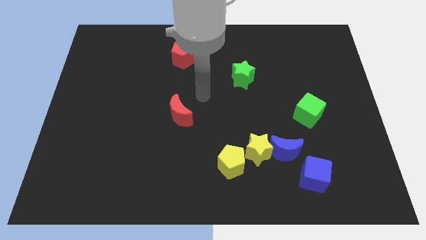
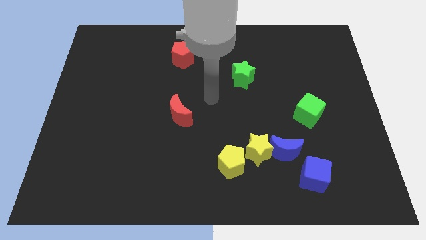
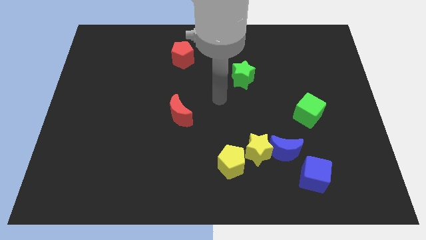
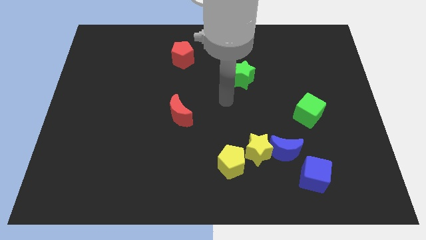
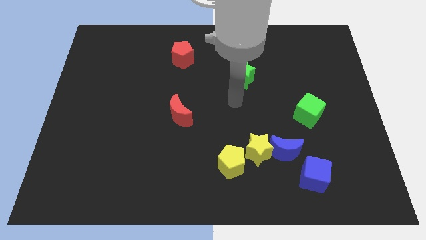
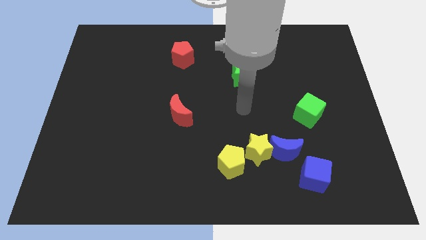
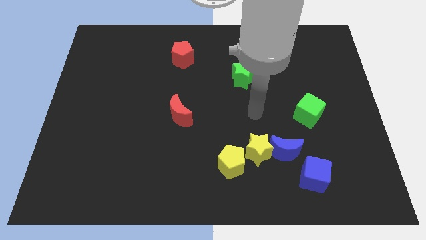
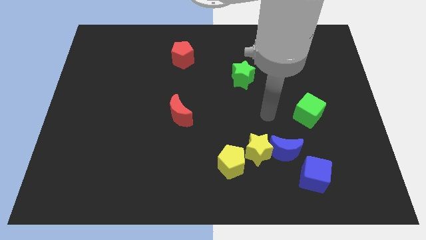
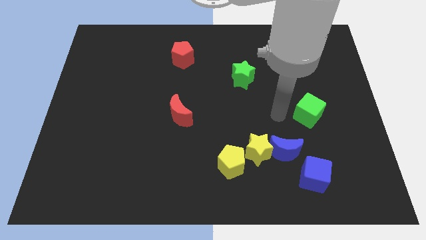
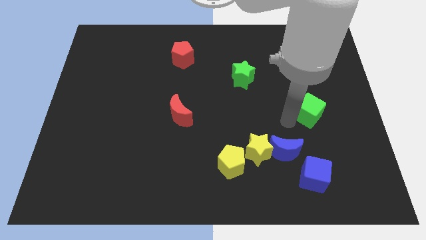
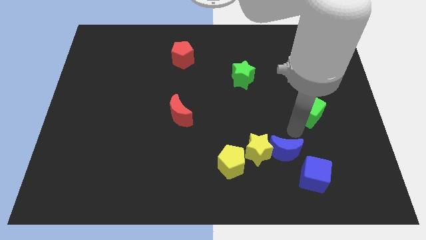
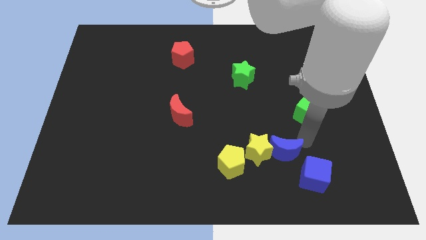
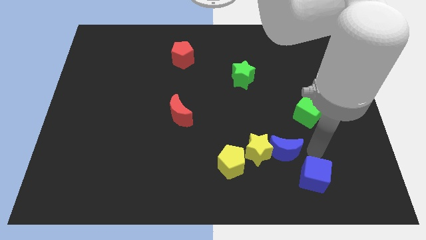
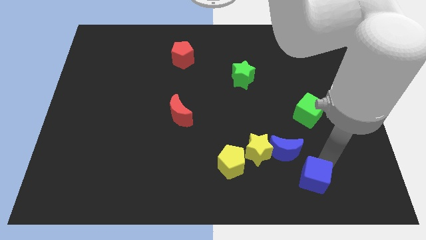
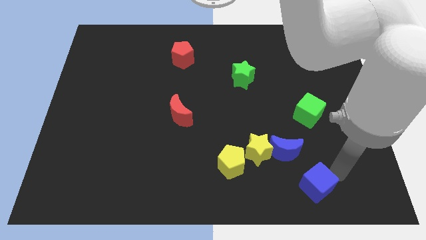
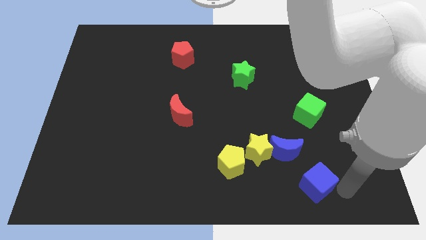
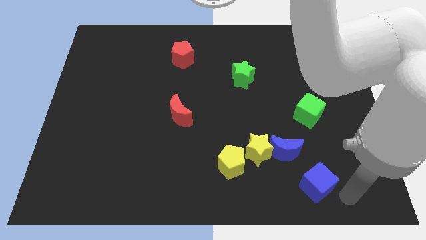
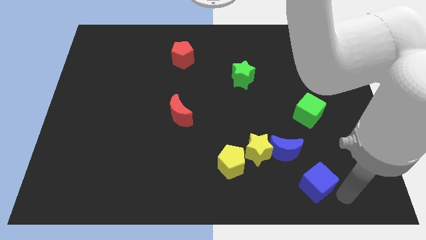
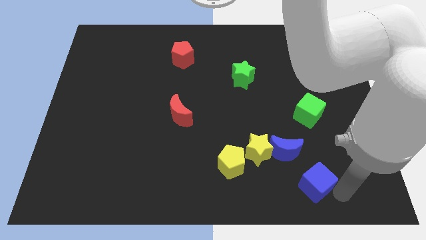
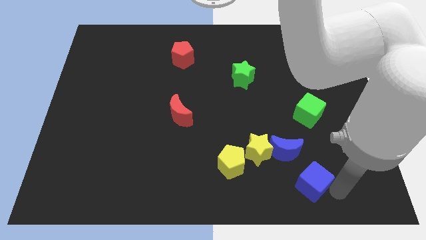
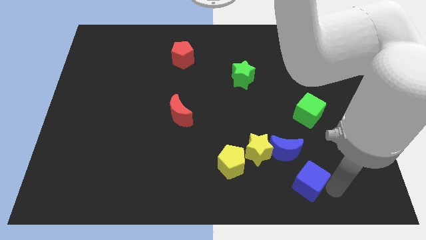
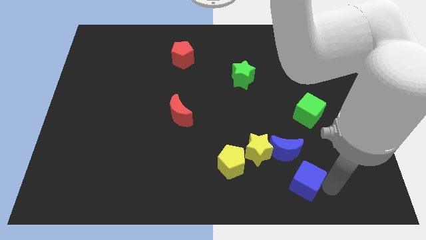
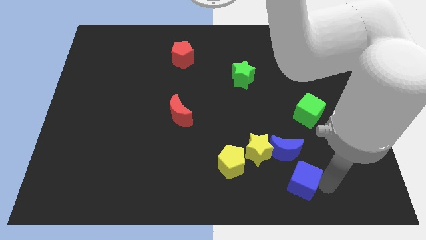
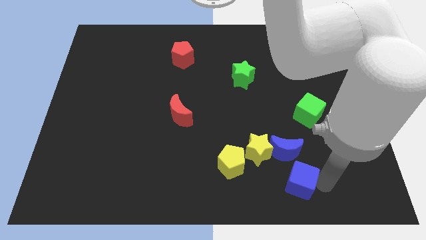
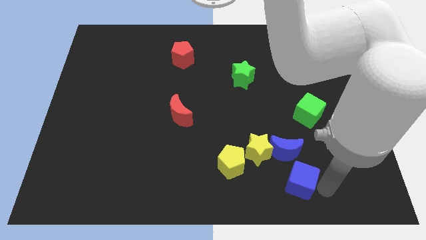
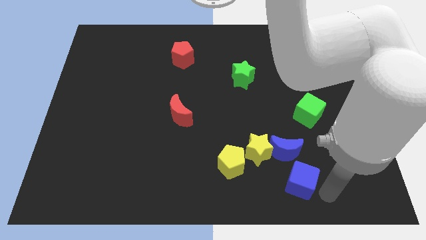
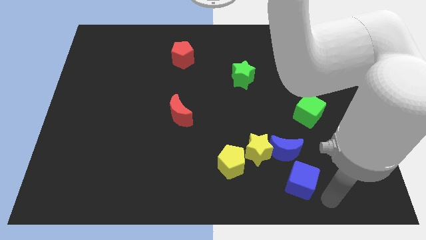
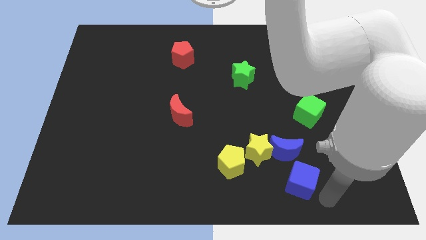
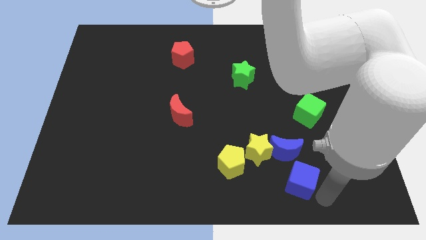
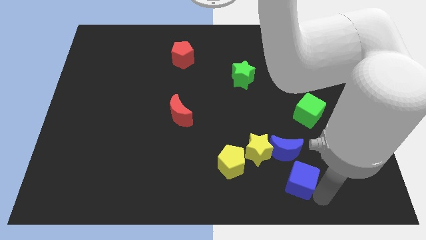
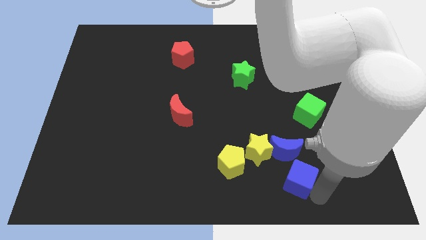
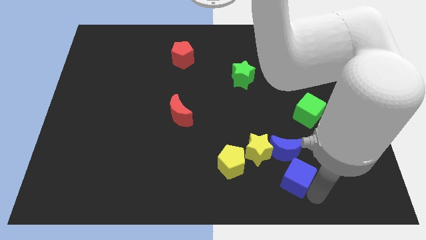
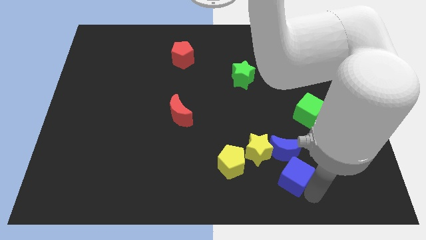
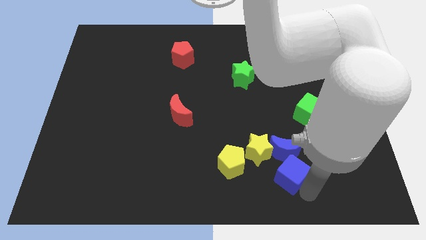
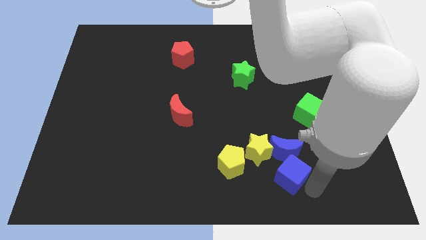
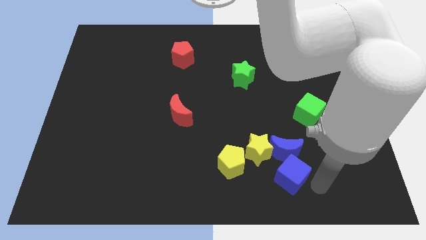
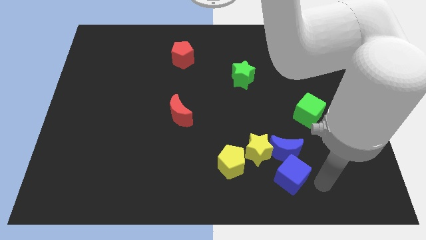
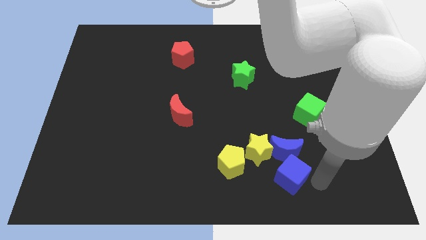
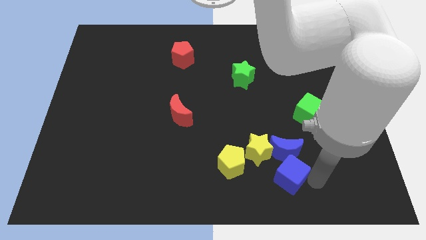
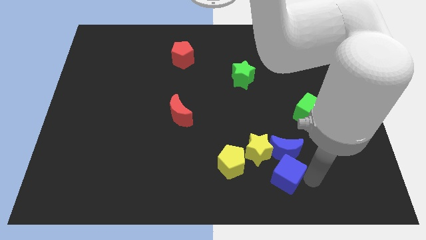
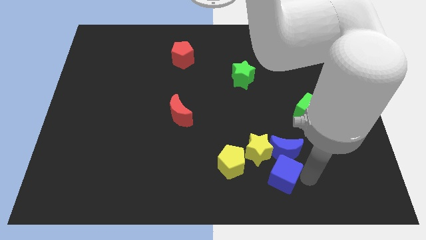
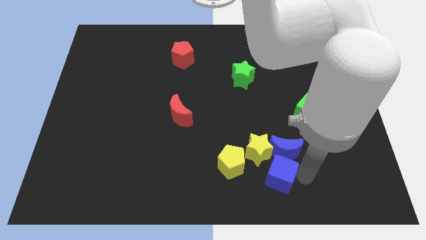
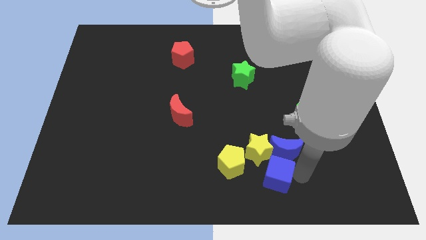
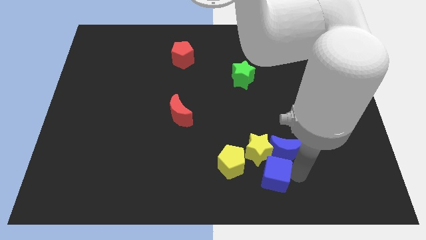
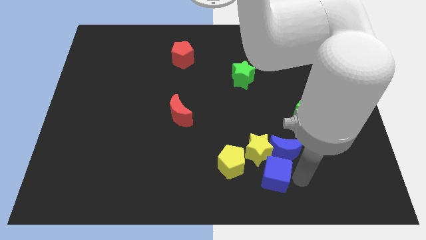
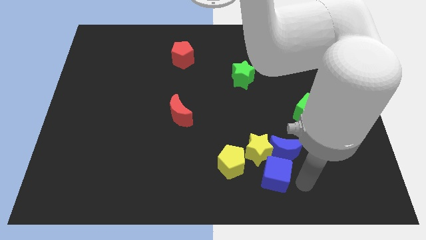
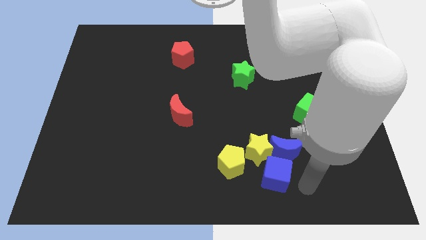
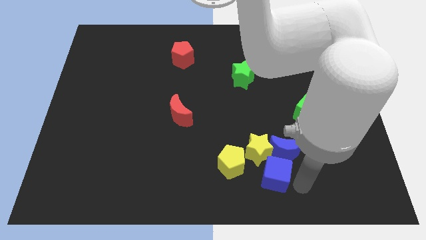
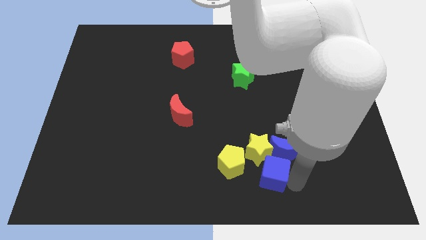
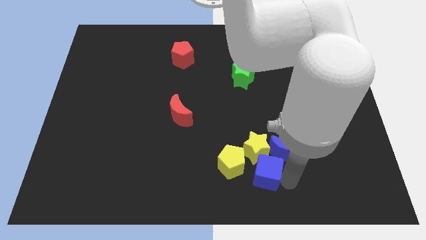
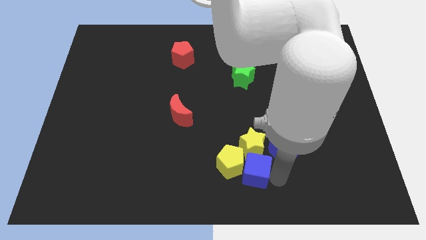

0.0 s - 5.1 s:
move the blue cube to the yellow pentagon

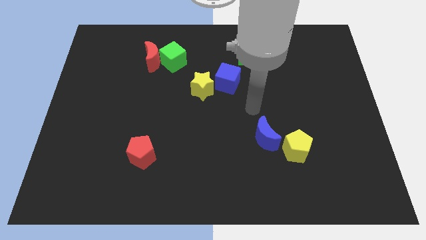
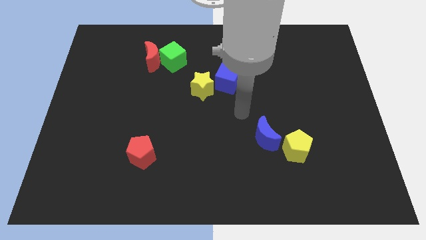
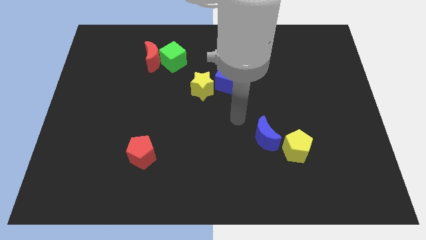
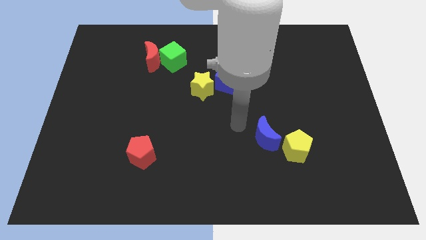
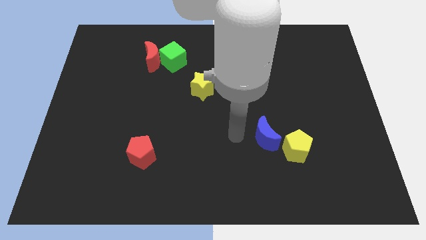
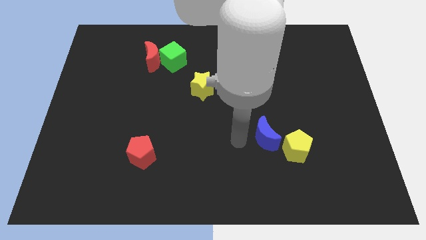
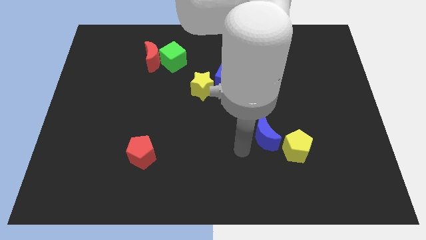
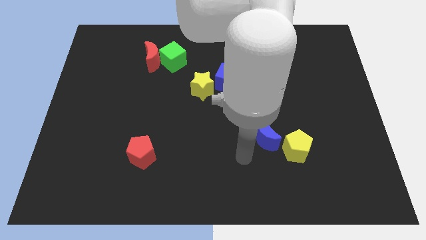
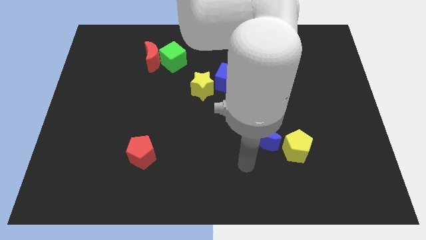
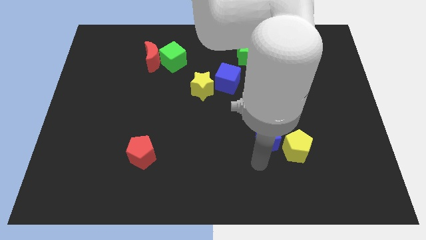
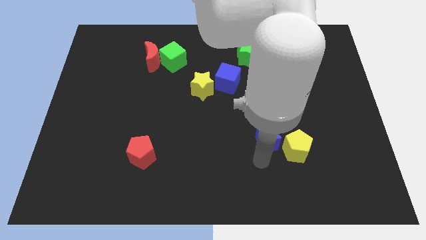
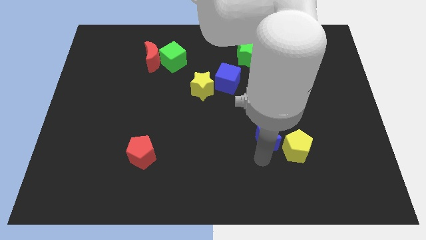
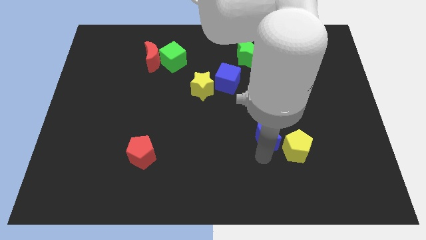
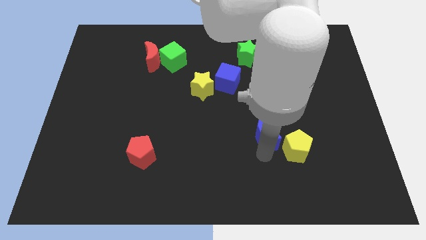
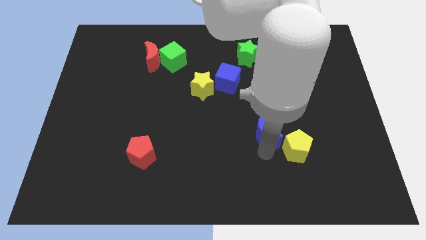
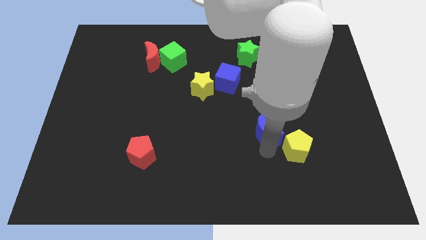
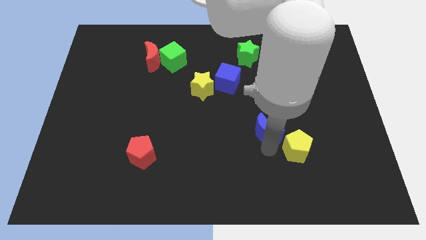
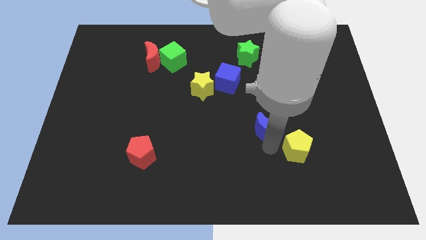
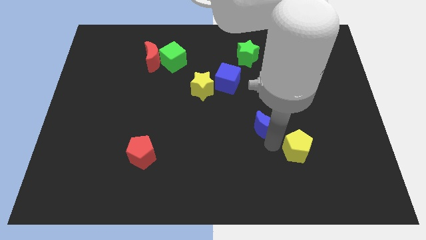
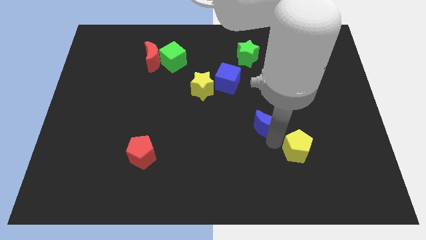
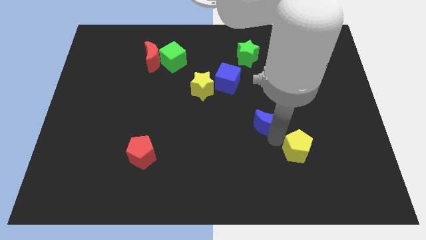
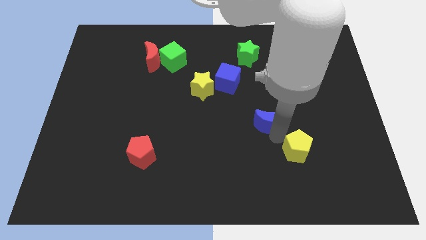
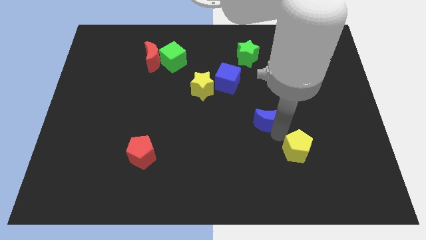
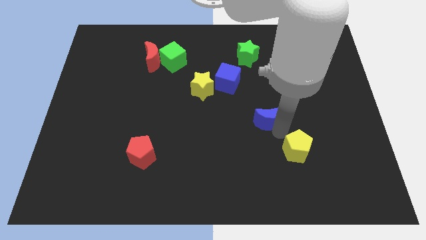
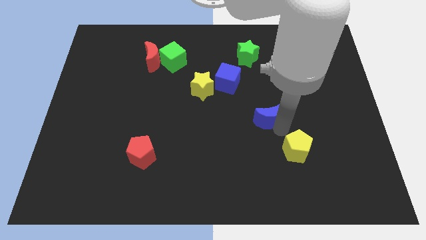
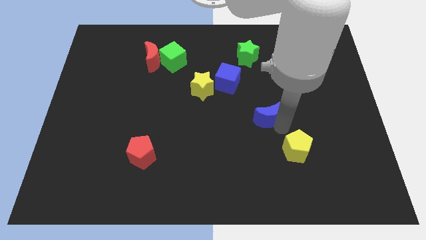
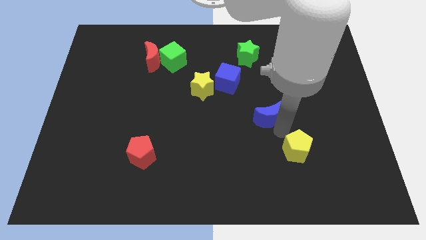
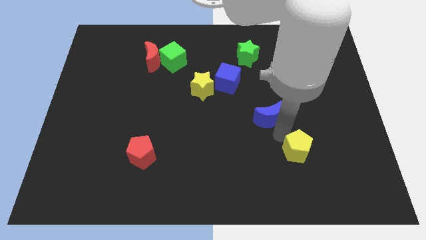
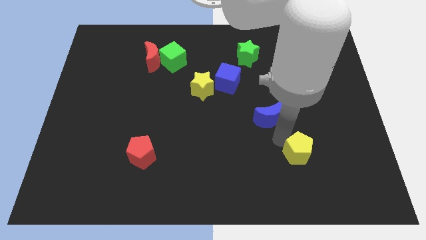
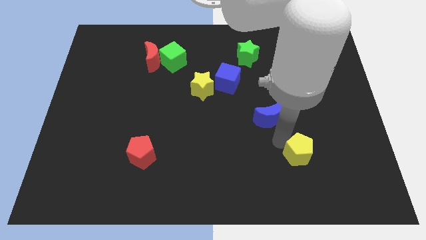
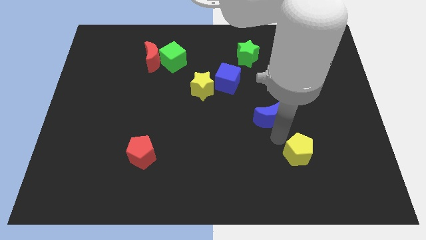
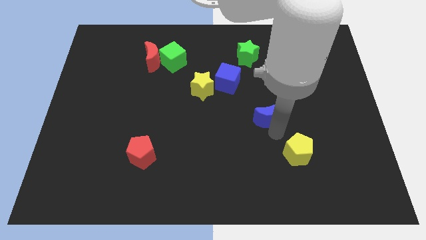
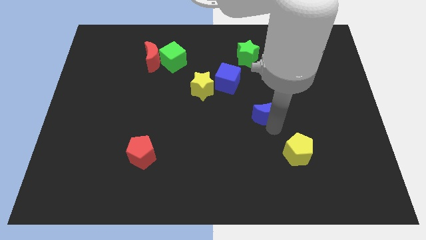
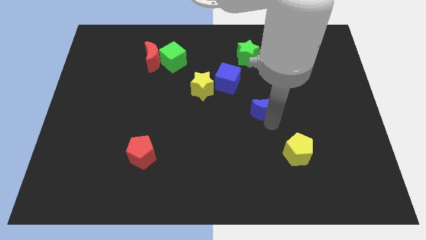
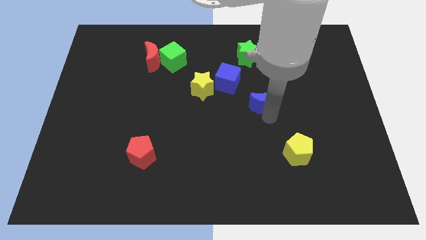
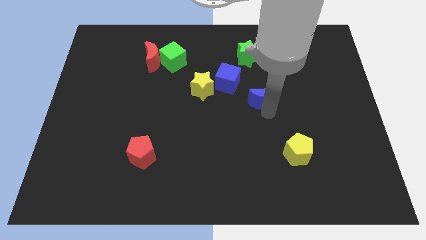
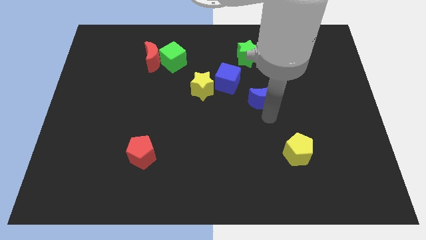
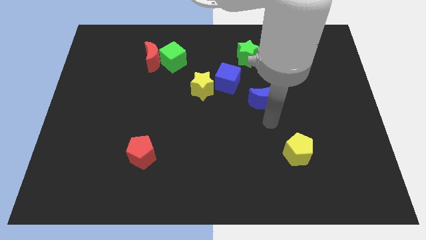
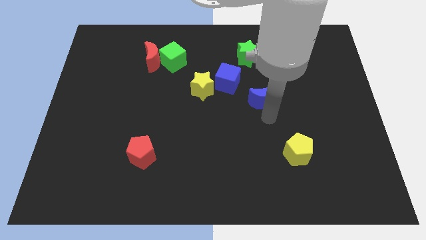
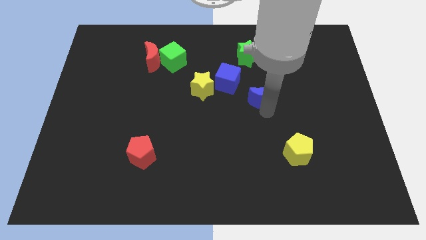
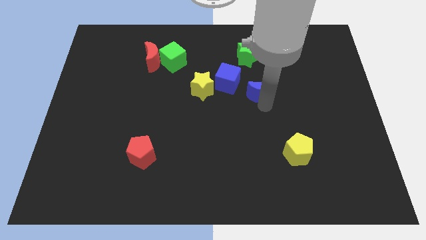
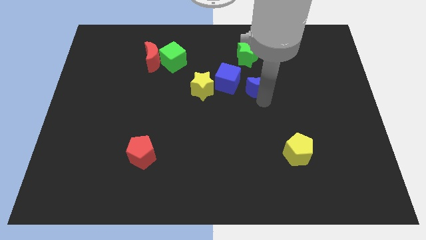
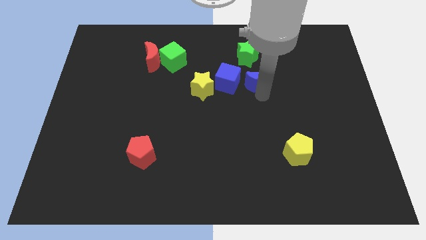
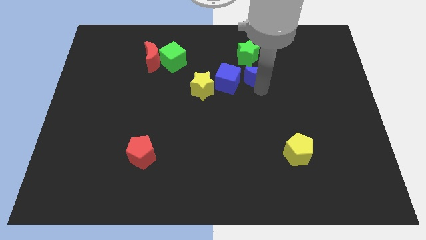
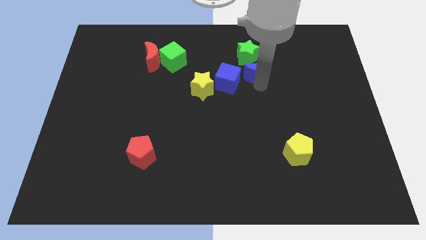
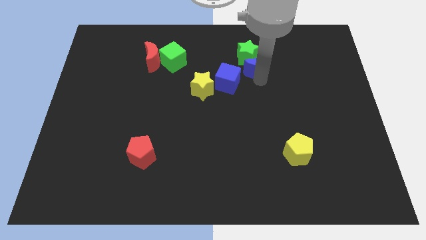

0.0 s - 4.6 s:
slide the blue moon to the green star
